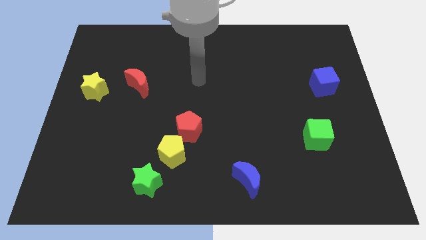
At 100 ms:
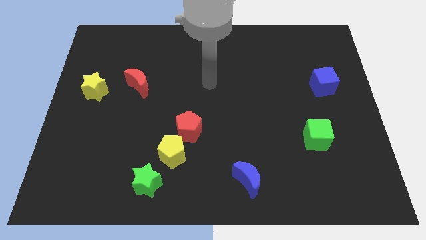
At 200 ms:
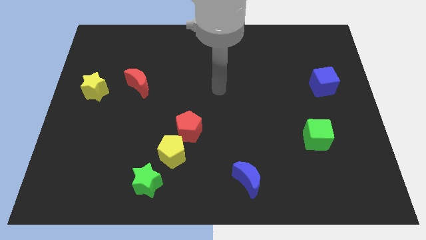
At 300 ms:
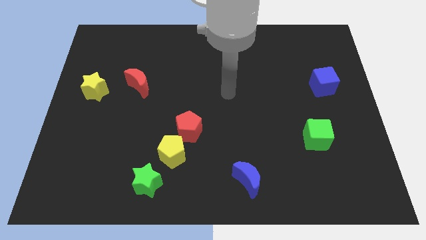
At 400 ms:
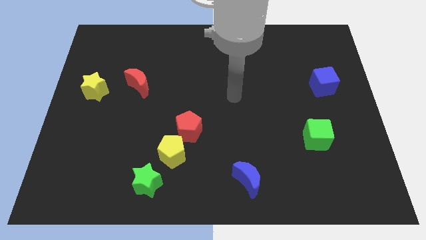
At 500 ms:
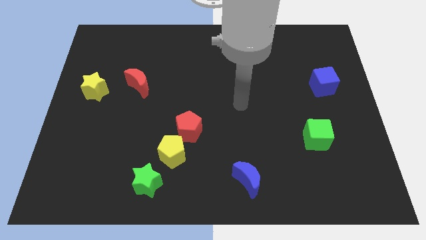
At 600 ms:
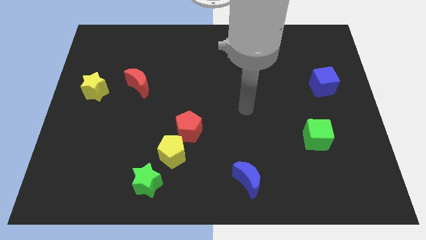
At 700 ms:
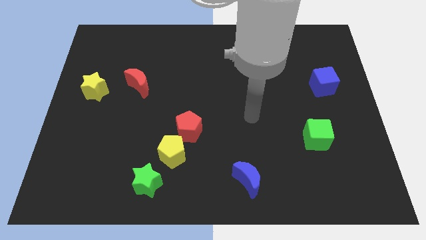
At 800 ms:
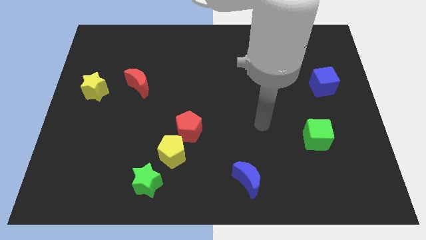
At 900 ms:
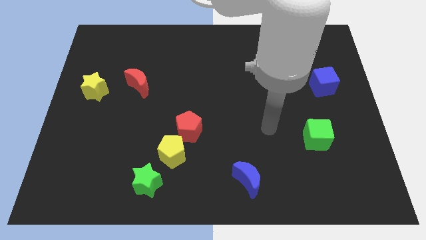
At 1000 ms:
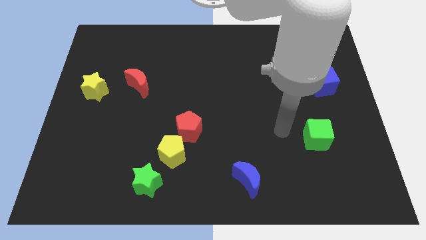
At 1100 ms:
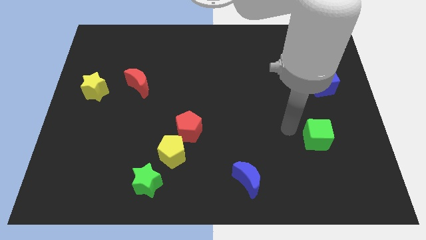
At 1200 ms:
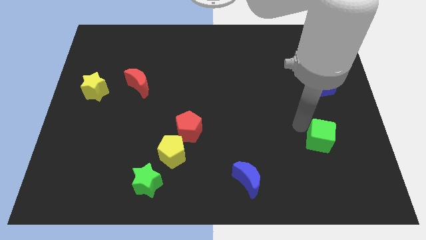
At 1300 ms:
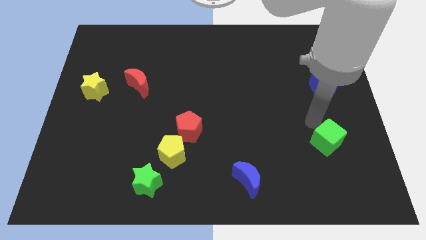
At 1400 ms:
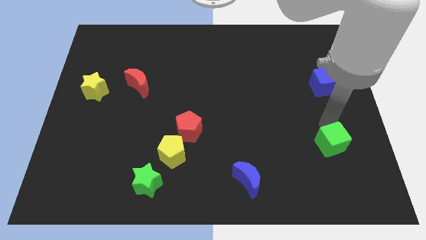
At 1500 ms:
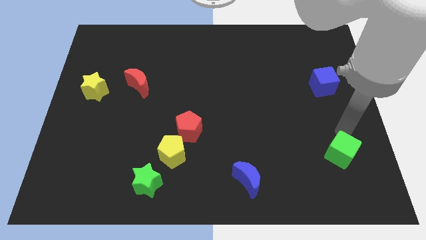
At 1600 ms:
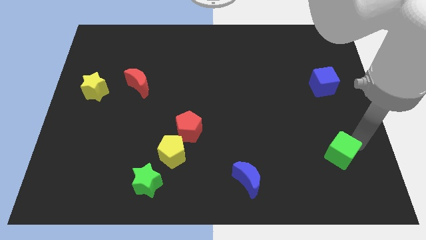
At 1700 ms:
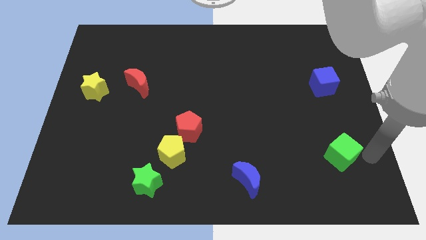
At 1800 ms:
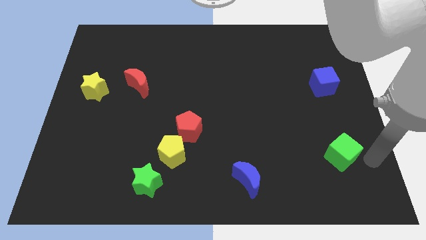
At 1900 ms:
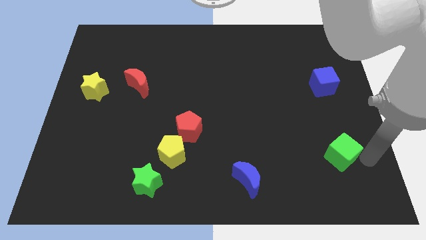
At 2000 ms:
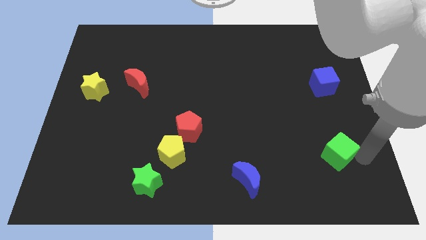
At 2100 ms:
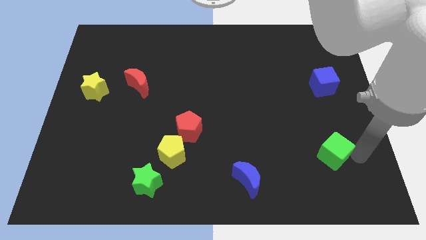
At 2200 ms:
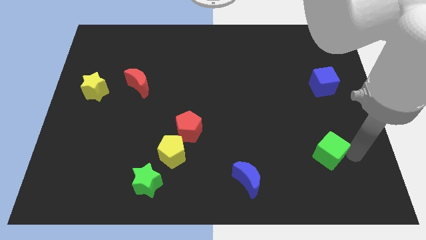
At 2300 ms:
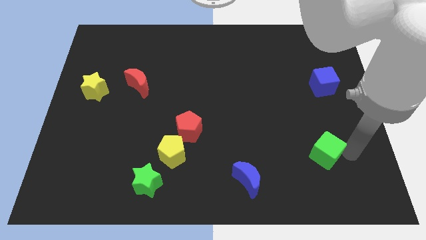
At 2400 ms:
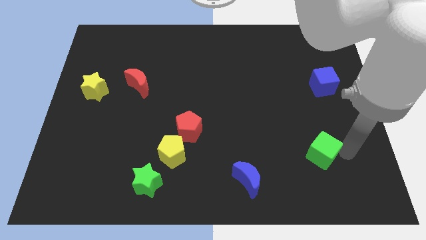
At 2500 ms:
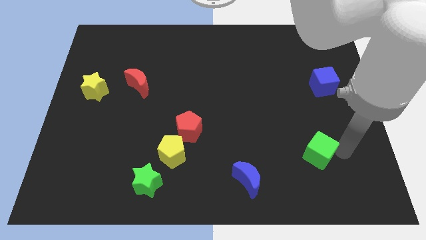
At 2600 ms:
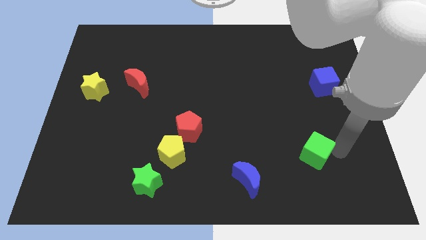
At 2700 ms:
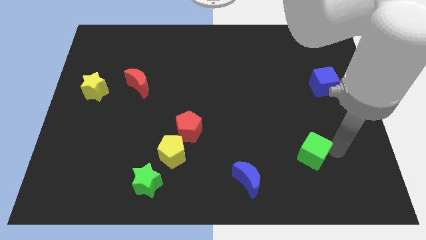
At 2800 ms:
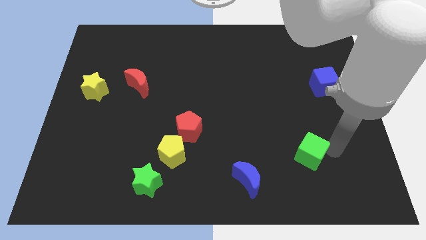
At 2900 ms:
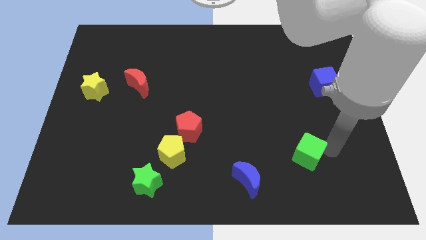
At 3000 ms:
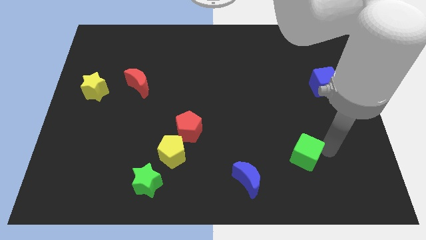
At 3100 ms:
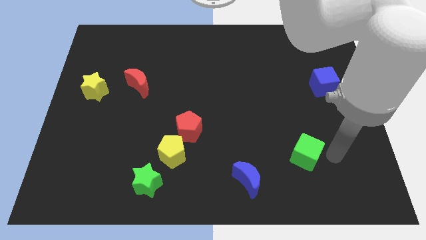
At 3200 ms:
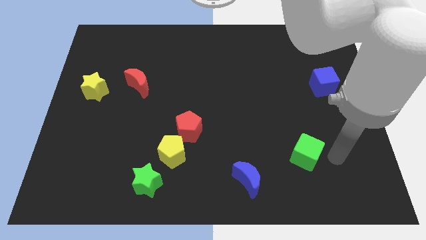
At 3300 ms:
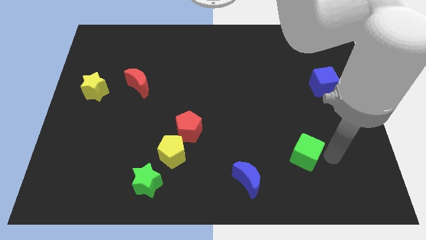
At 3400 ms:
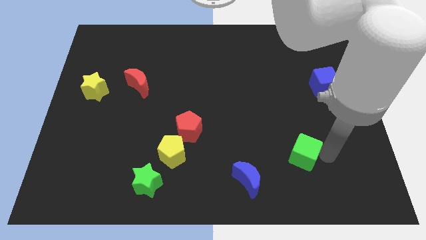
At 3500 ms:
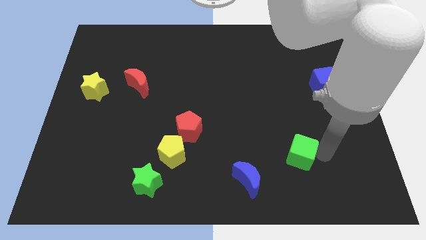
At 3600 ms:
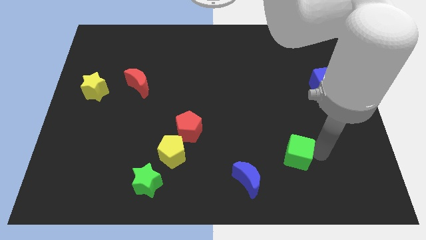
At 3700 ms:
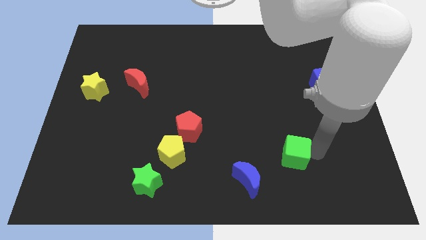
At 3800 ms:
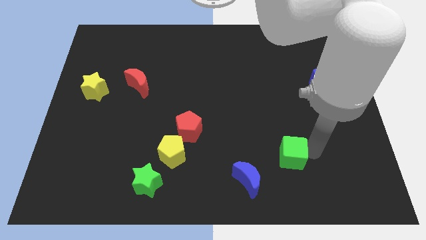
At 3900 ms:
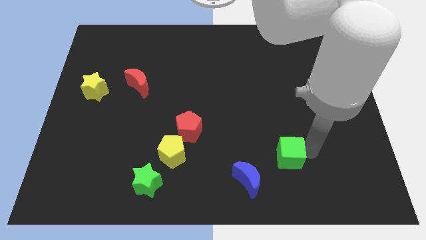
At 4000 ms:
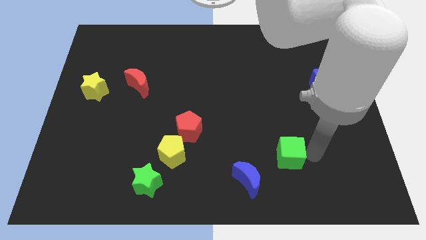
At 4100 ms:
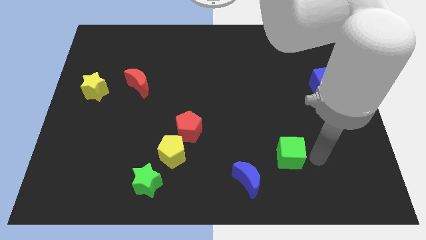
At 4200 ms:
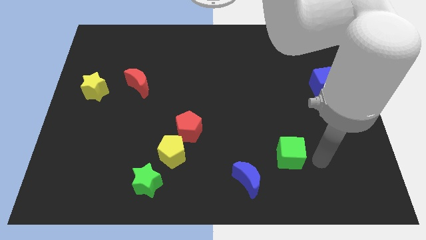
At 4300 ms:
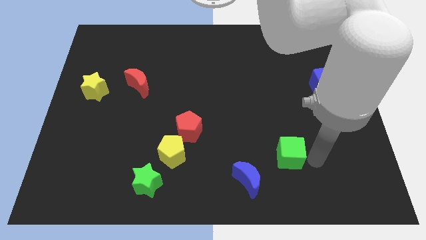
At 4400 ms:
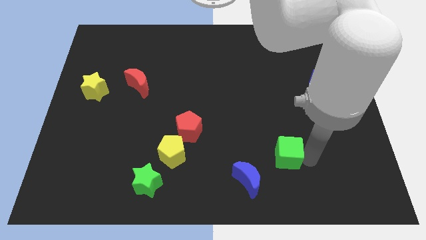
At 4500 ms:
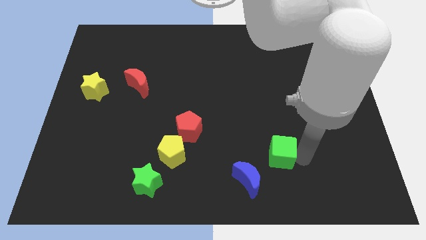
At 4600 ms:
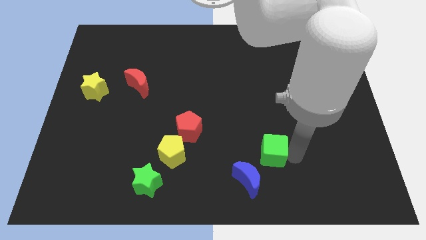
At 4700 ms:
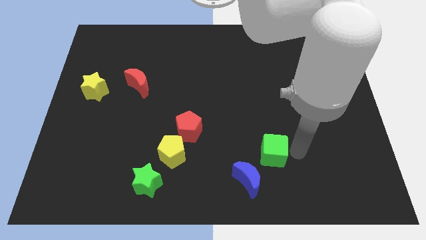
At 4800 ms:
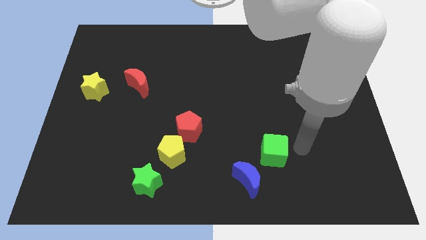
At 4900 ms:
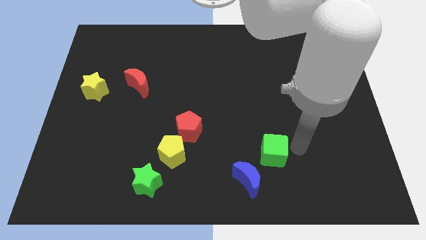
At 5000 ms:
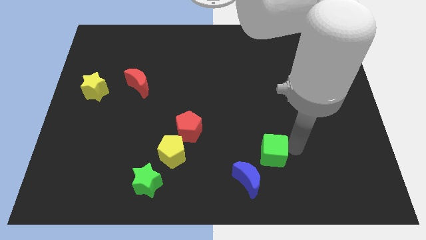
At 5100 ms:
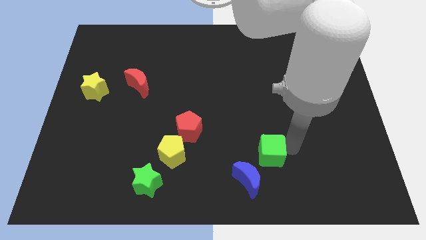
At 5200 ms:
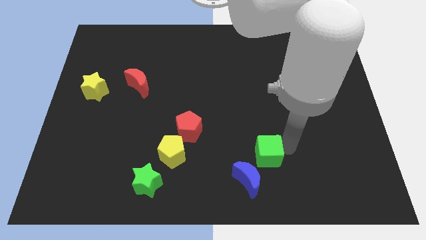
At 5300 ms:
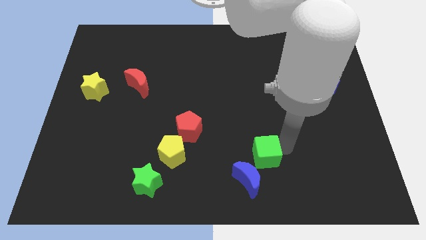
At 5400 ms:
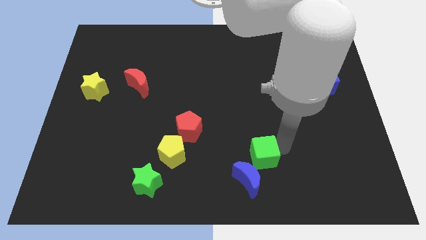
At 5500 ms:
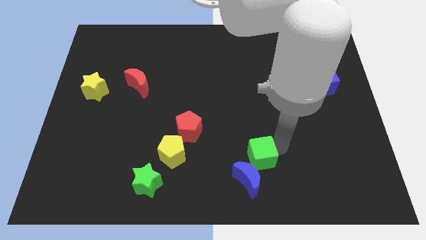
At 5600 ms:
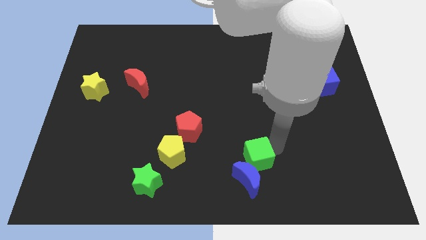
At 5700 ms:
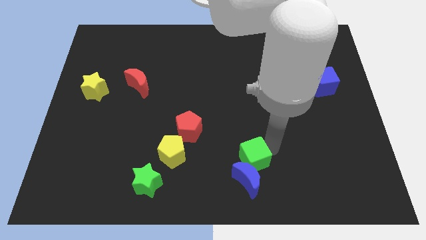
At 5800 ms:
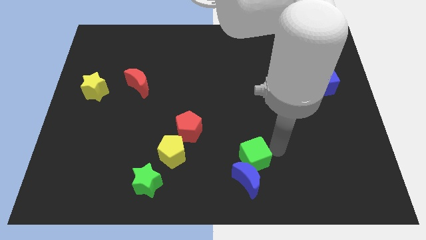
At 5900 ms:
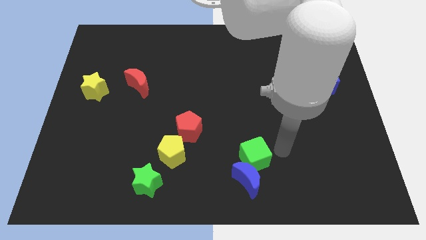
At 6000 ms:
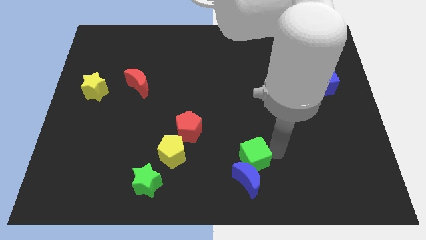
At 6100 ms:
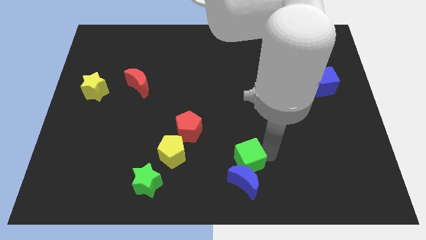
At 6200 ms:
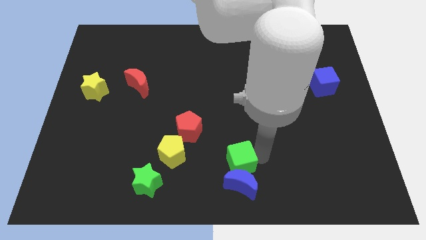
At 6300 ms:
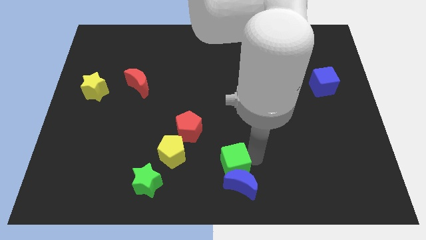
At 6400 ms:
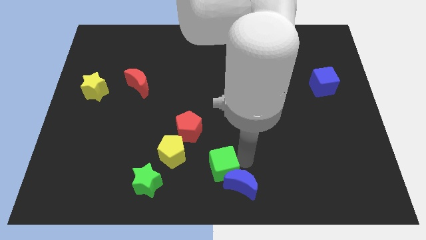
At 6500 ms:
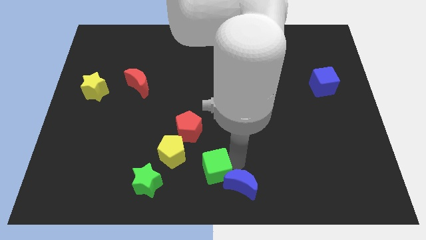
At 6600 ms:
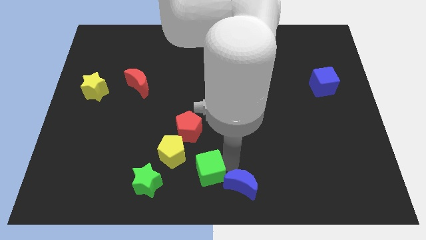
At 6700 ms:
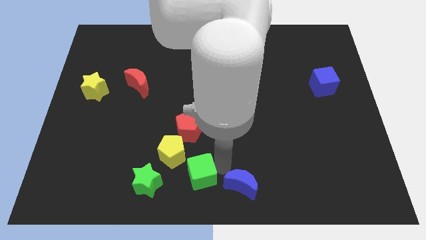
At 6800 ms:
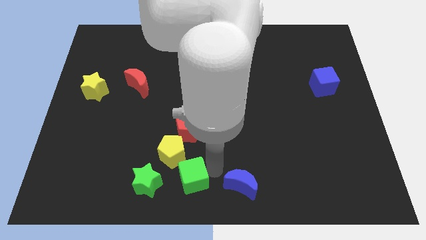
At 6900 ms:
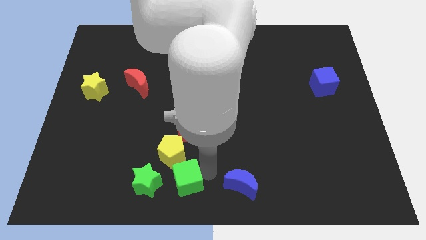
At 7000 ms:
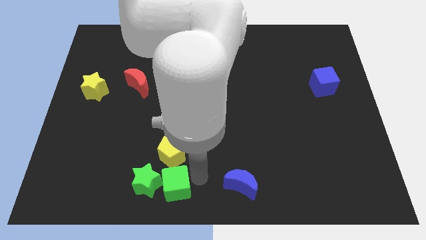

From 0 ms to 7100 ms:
move the green cube next to the green star

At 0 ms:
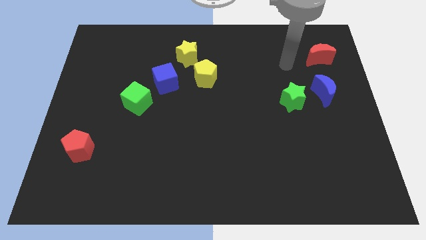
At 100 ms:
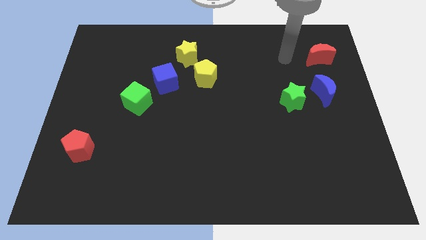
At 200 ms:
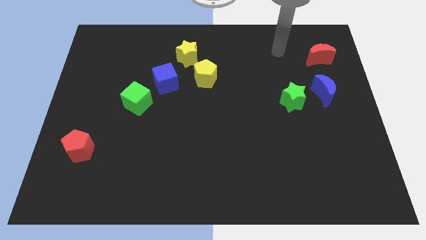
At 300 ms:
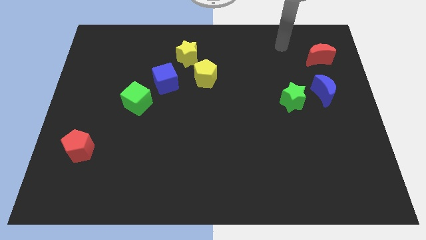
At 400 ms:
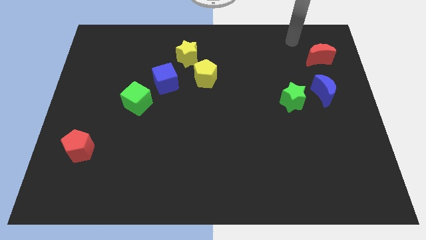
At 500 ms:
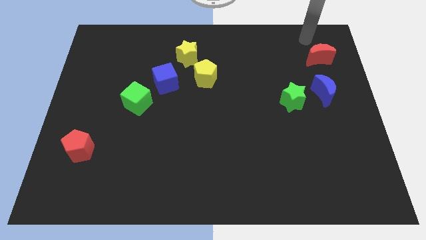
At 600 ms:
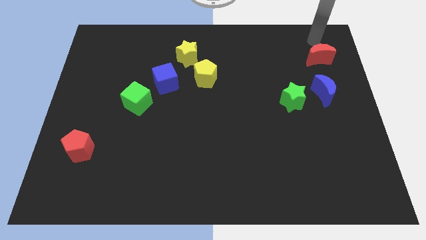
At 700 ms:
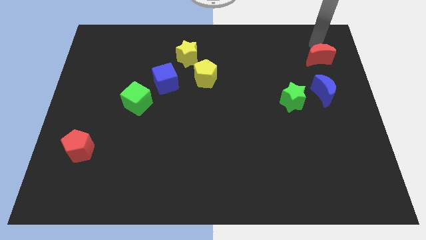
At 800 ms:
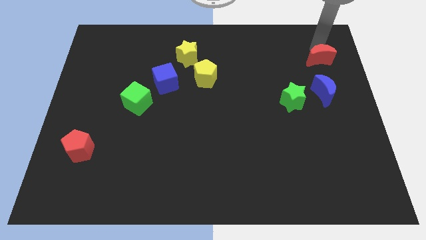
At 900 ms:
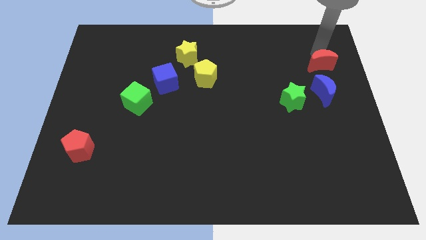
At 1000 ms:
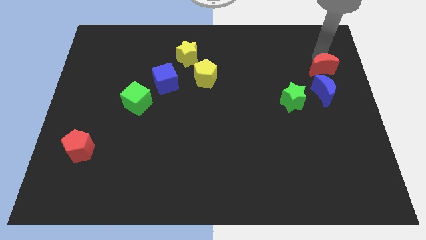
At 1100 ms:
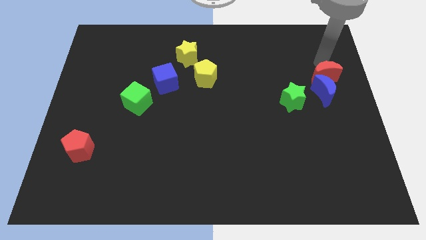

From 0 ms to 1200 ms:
push the red moon close to the blue moon

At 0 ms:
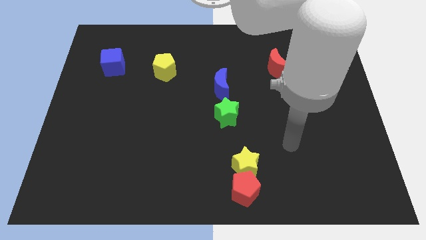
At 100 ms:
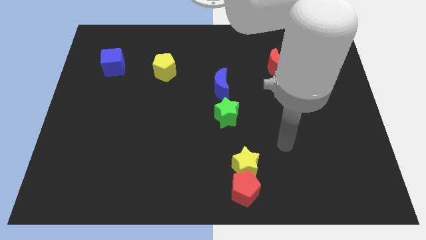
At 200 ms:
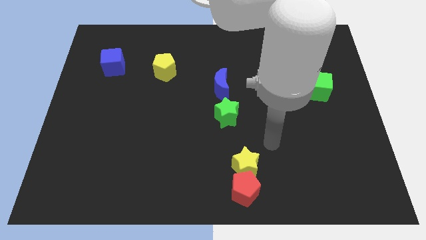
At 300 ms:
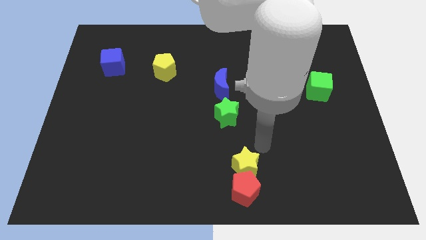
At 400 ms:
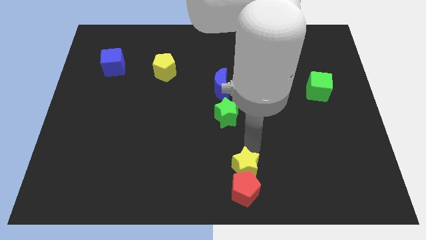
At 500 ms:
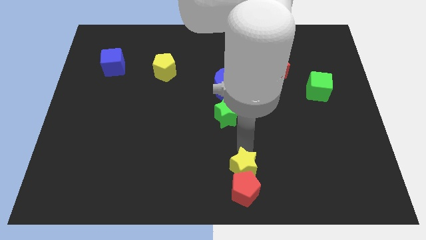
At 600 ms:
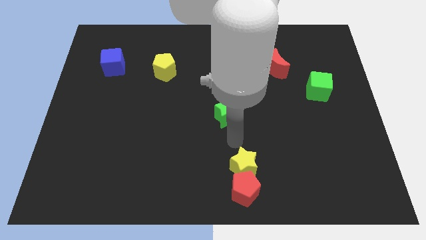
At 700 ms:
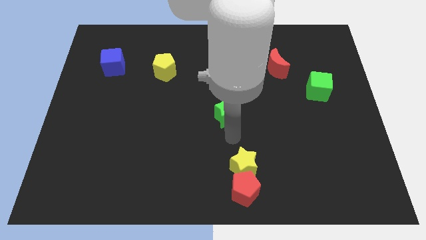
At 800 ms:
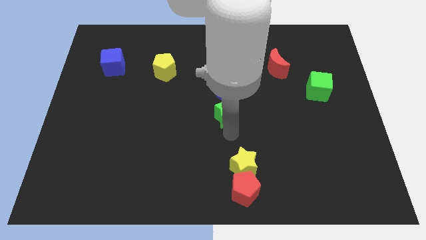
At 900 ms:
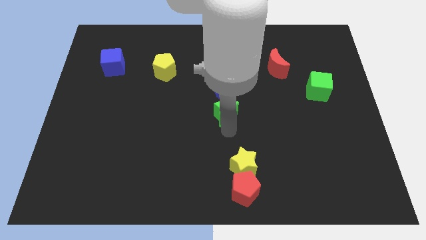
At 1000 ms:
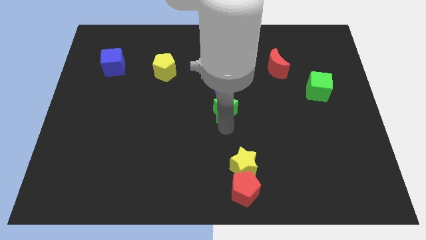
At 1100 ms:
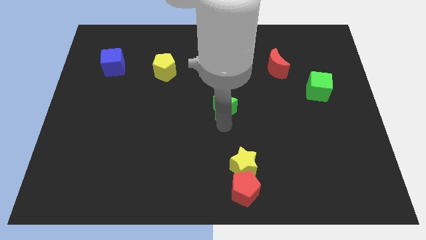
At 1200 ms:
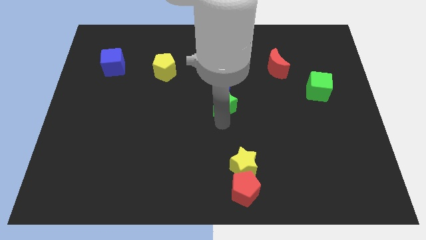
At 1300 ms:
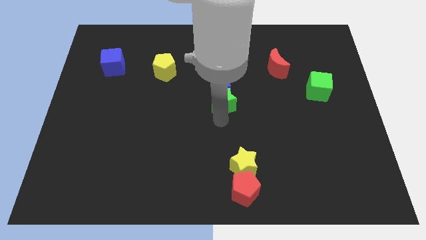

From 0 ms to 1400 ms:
move the green star to the blue moon
